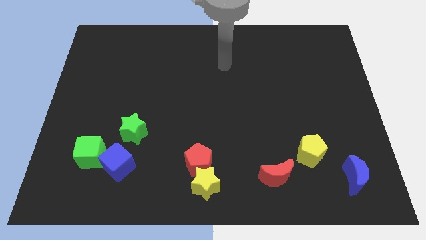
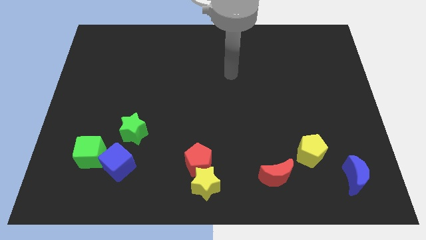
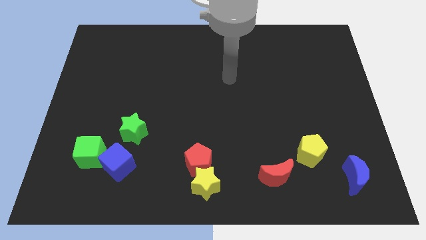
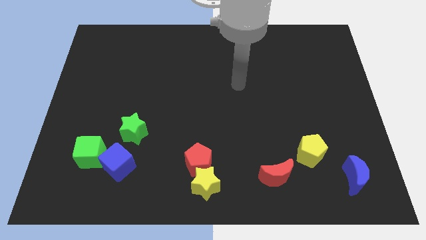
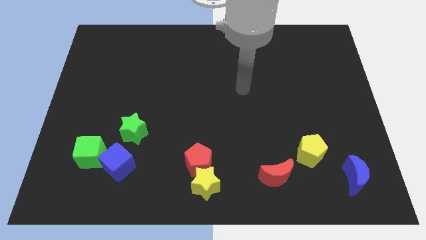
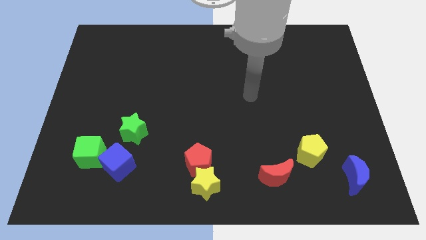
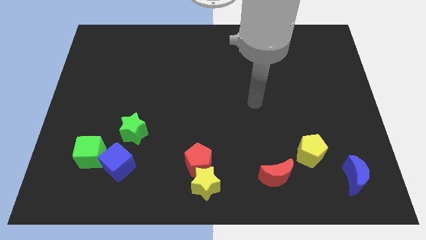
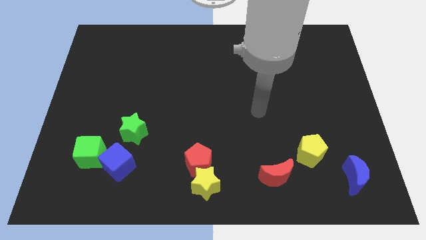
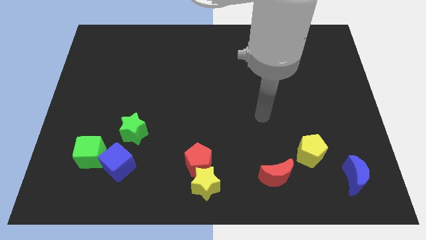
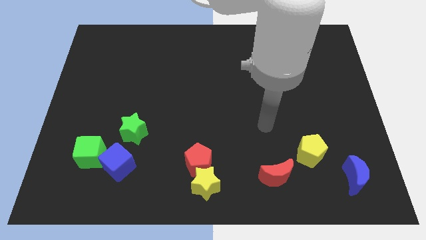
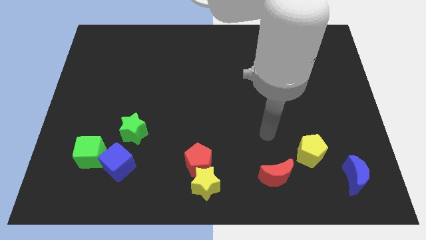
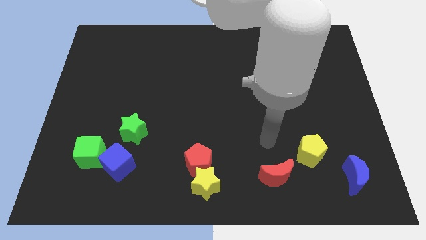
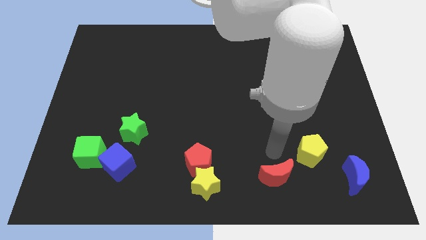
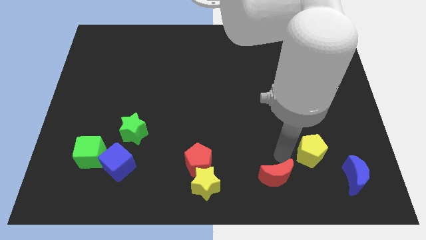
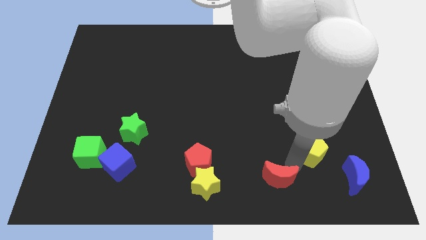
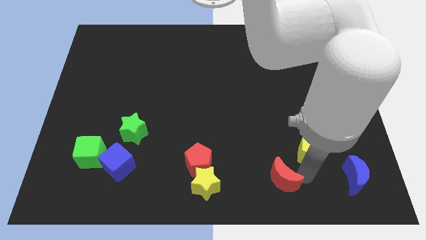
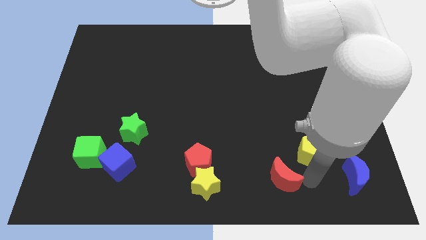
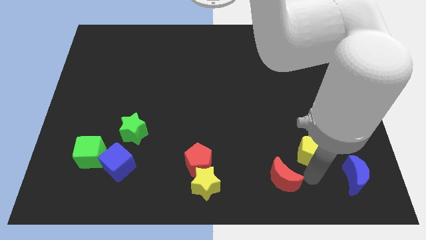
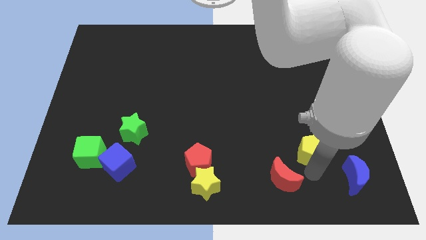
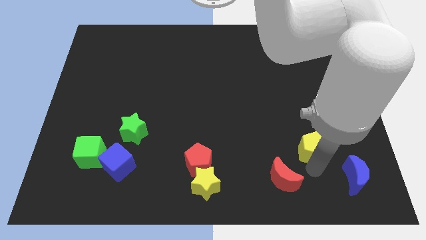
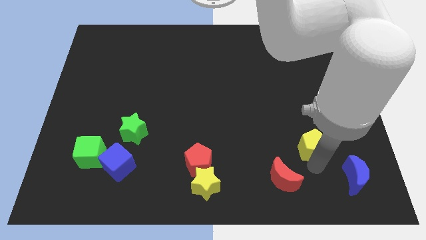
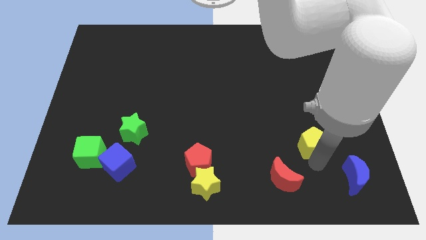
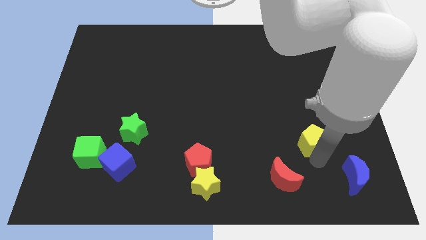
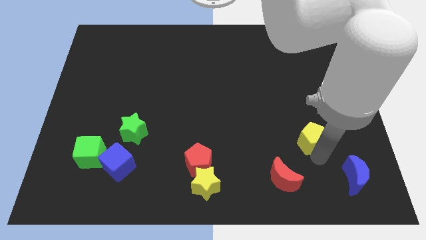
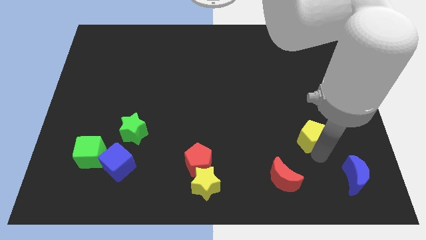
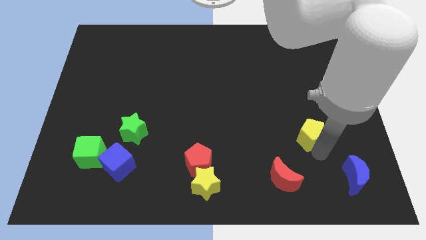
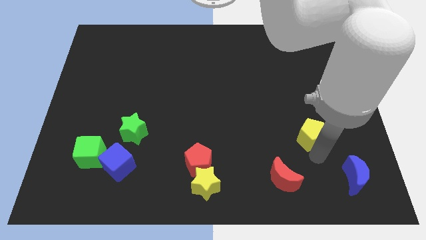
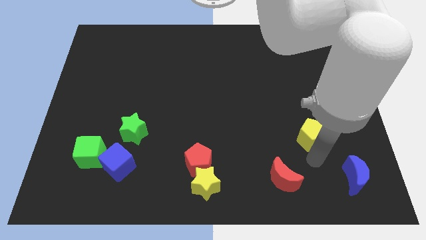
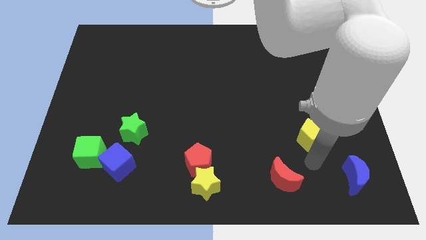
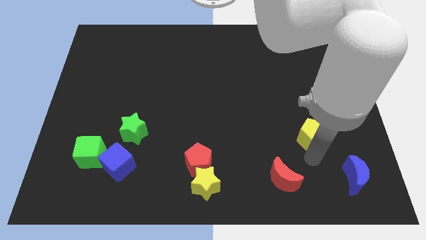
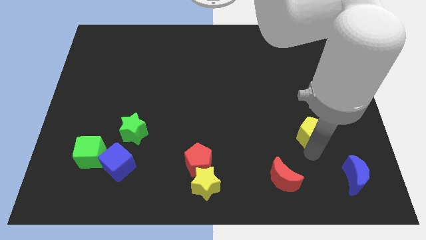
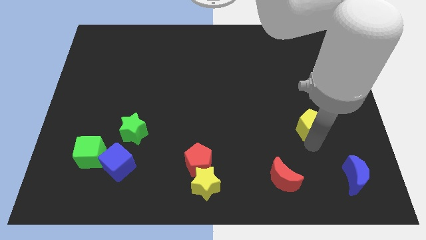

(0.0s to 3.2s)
slide the yellow pentagon upwards somewhat

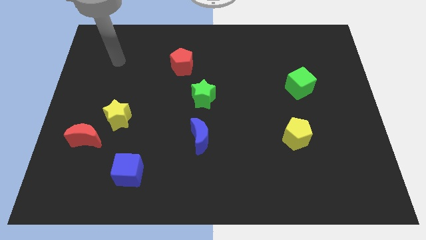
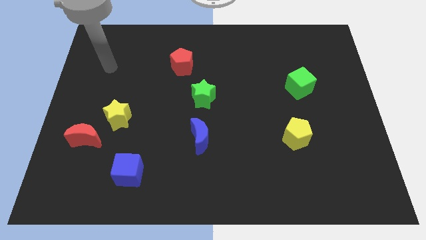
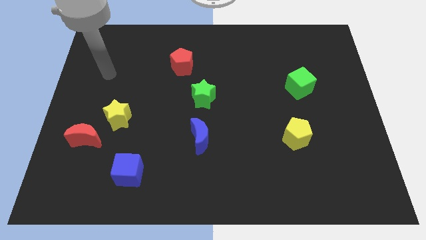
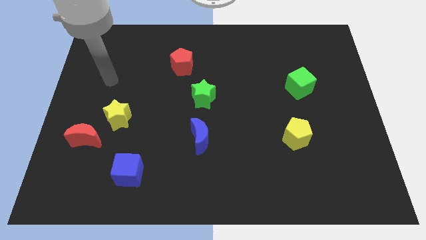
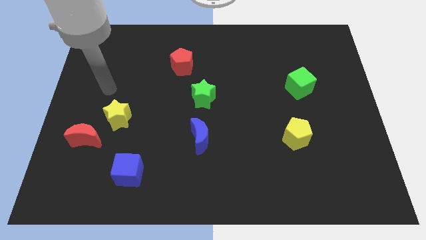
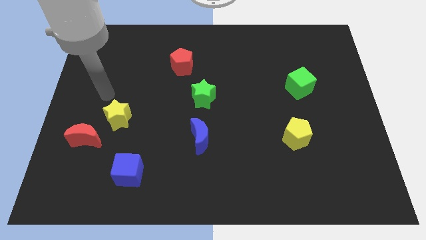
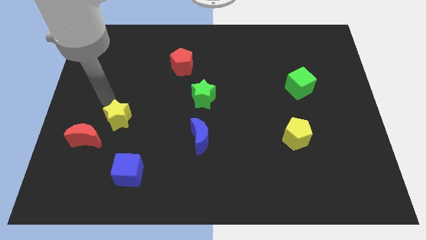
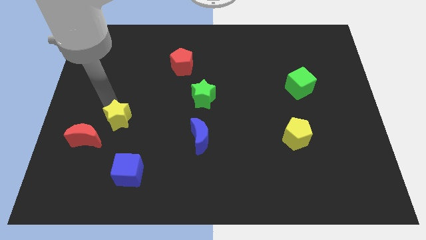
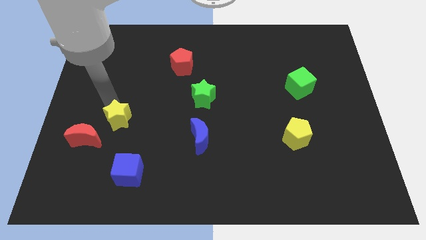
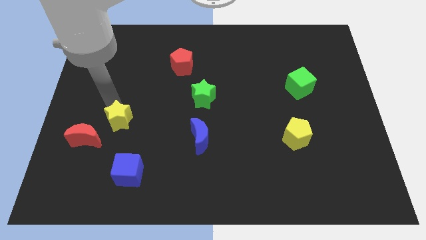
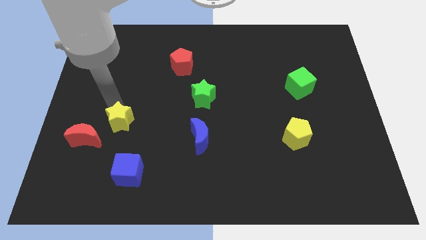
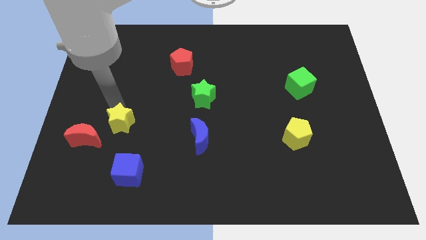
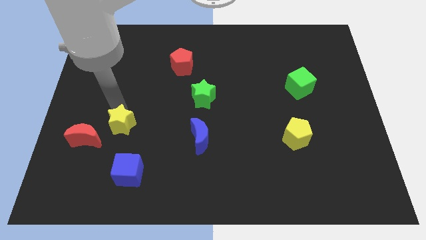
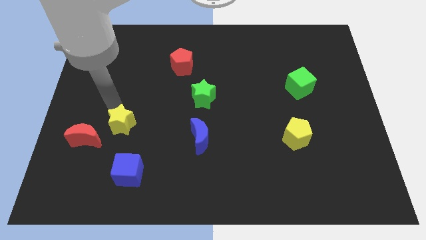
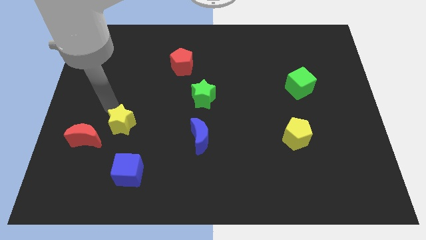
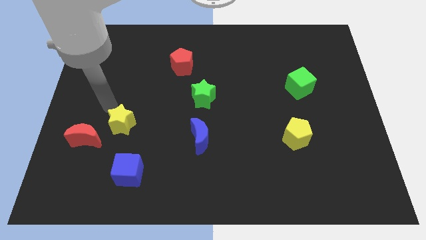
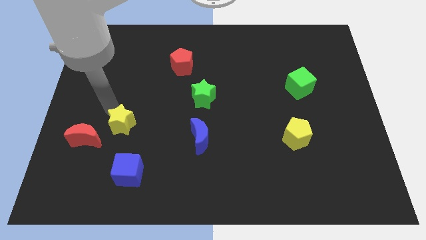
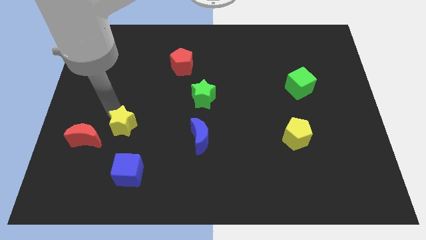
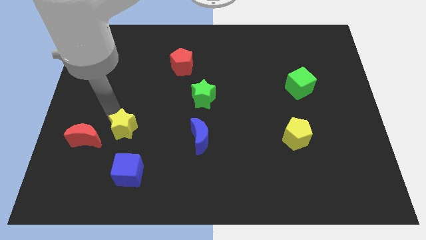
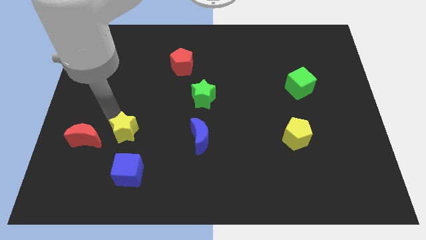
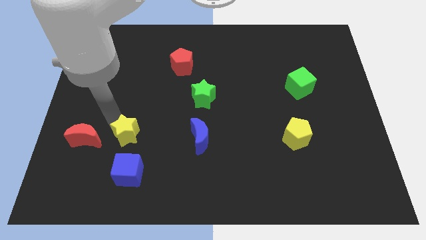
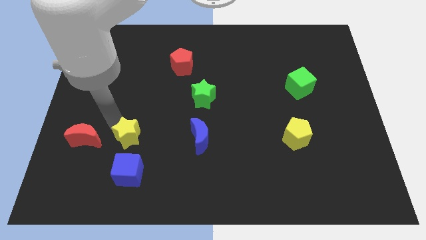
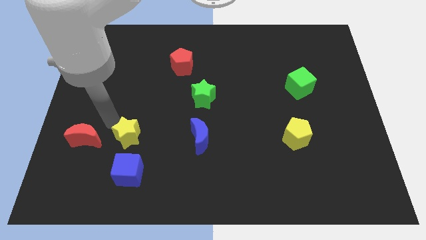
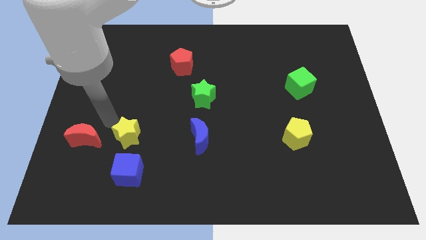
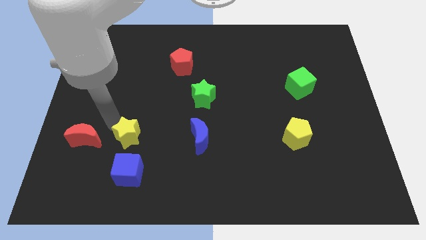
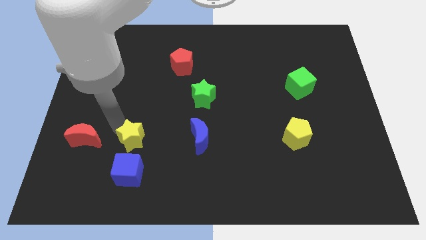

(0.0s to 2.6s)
move the yellow star a little downwards and right diagonally

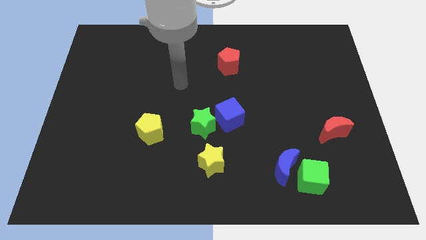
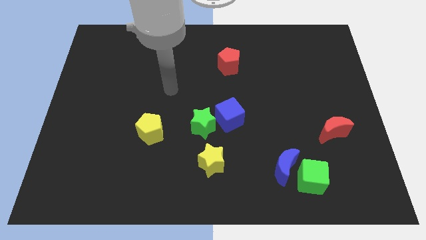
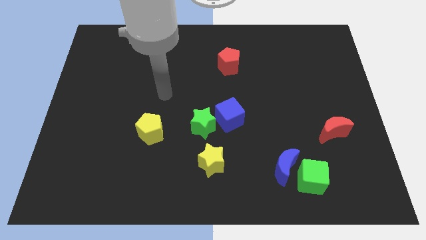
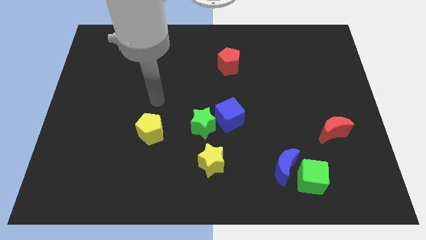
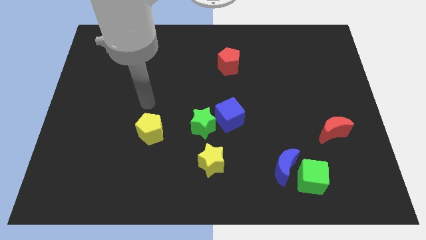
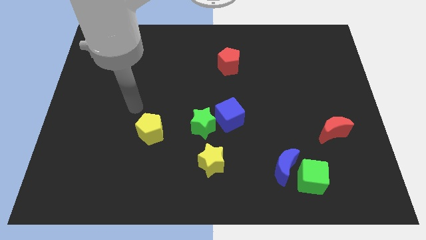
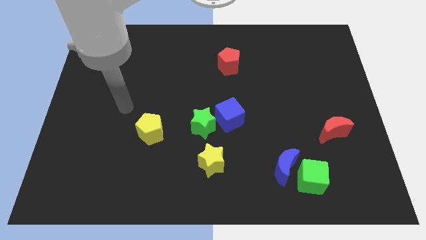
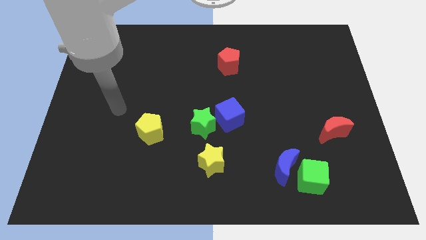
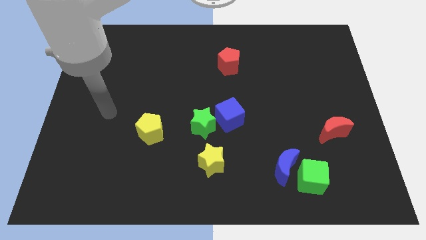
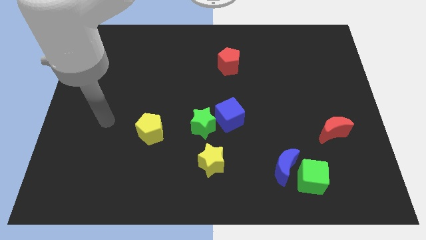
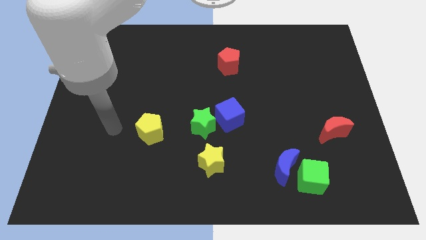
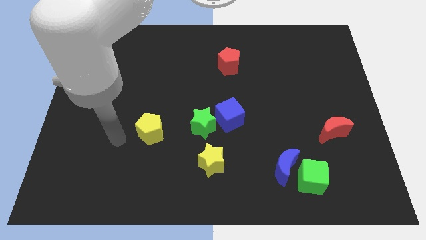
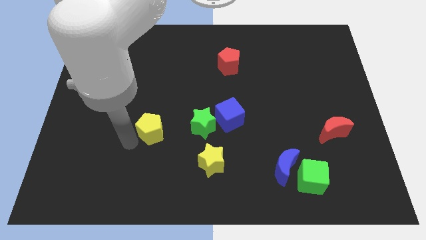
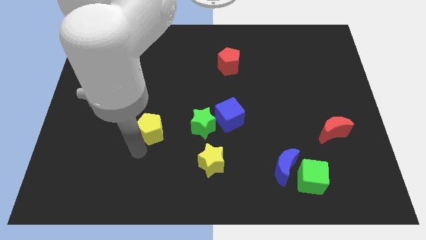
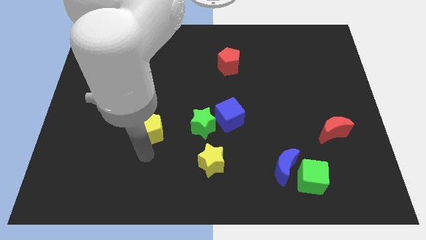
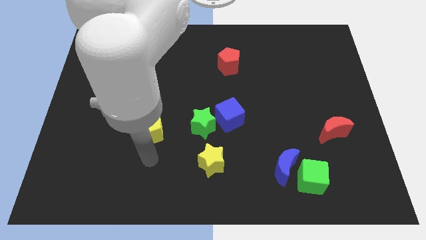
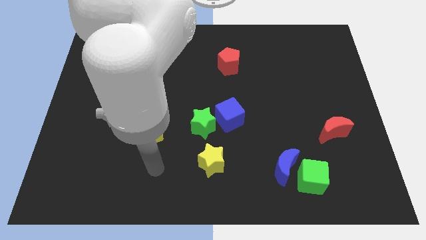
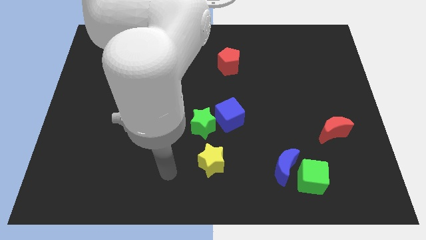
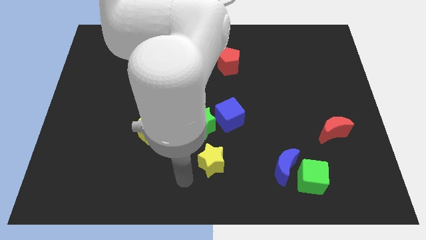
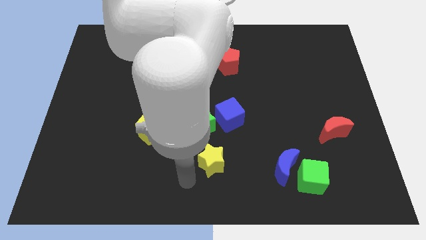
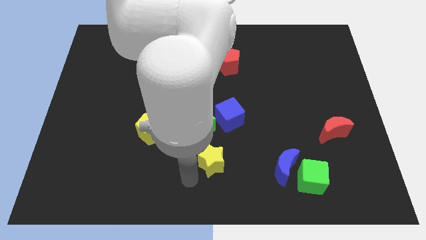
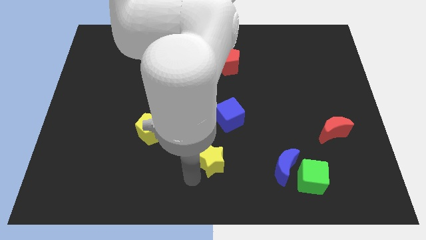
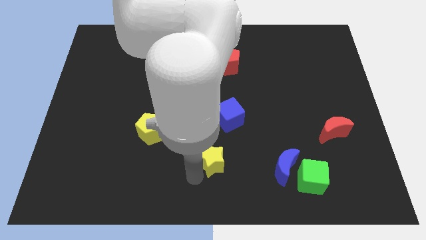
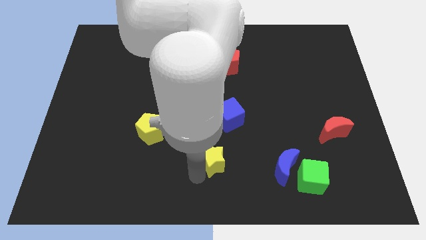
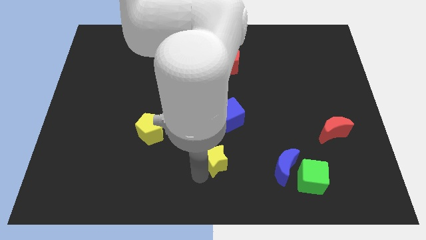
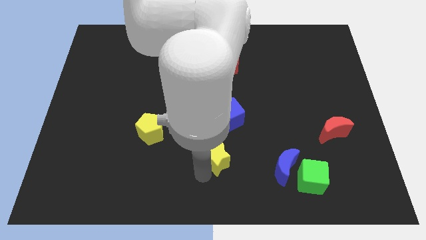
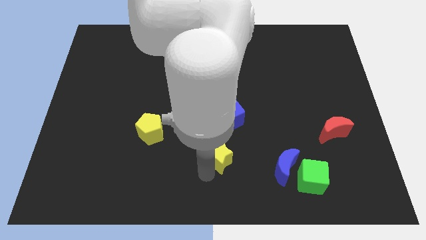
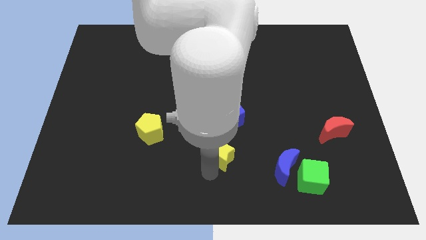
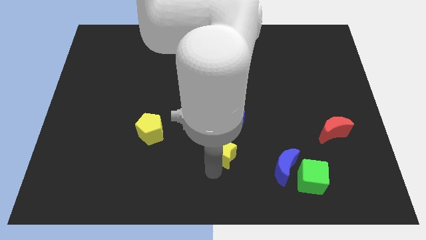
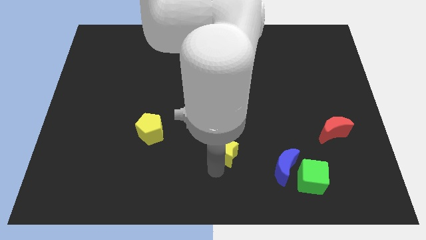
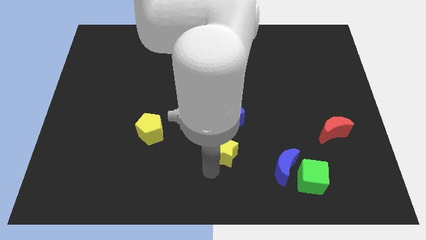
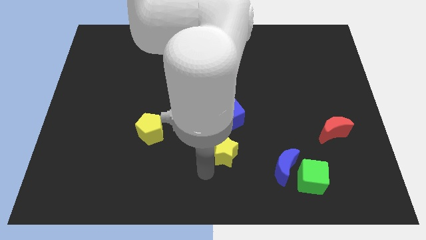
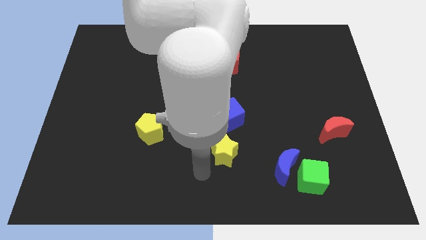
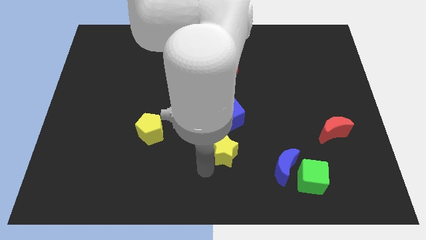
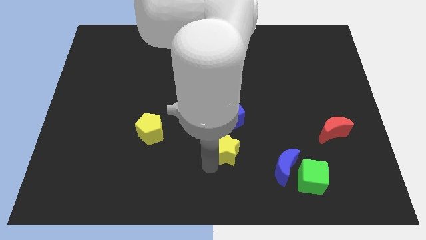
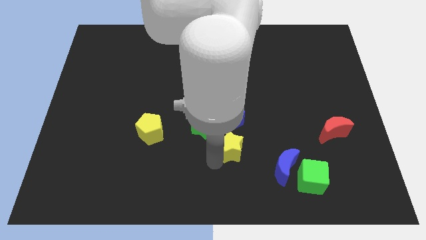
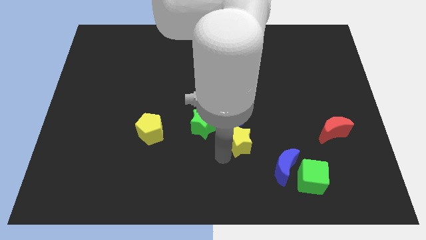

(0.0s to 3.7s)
slide the yellow star a bit up and to the right diagonally
